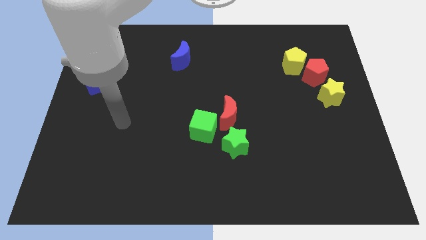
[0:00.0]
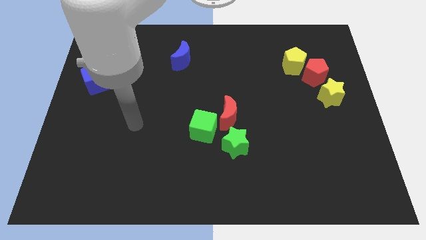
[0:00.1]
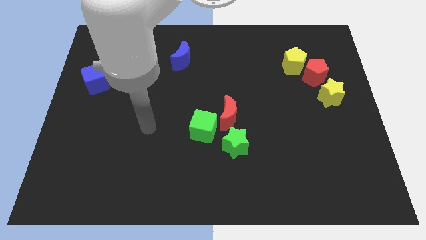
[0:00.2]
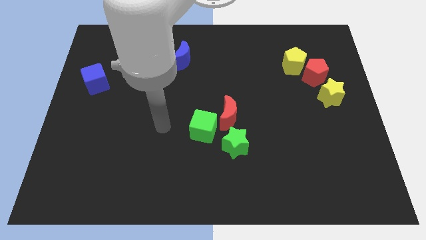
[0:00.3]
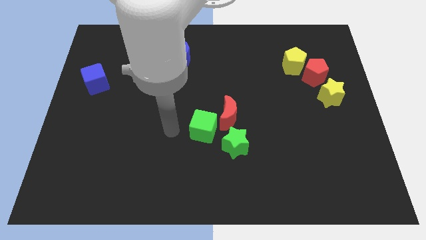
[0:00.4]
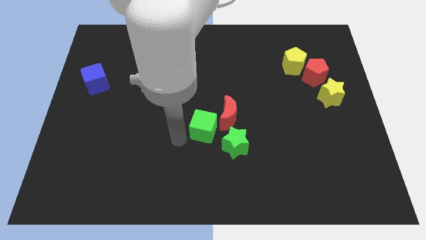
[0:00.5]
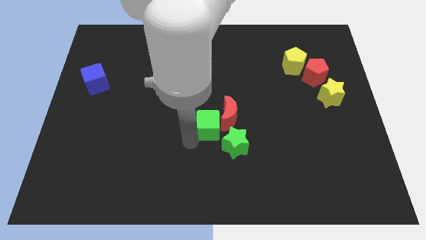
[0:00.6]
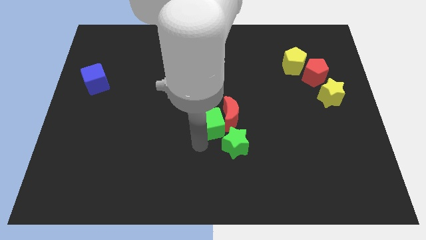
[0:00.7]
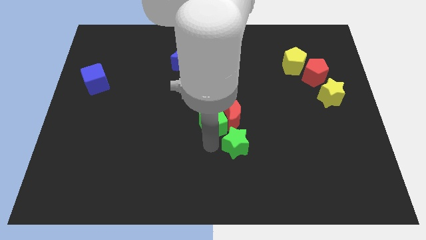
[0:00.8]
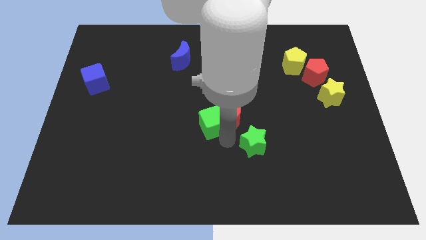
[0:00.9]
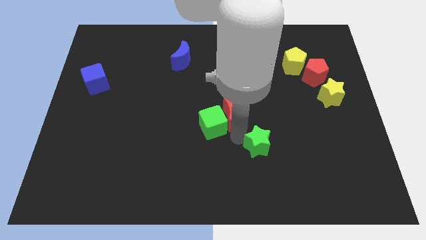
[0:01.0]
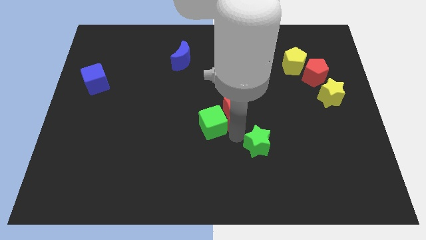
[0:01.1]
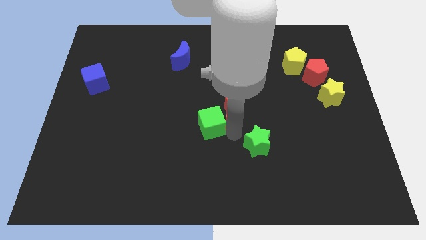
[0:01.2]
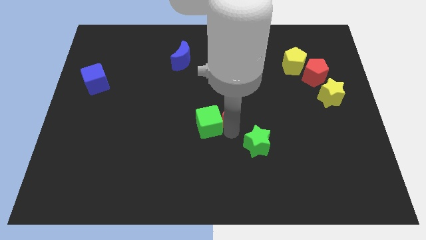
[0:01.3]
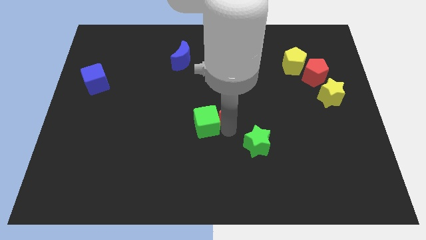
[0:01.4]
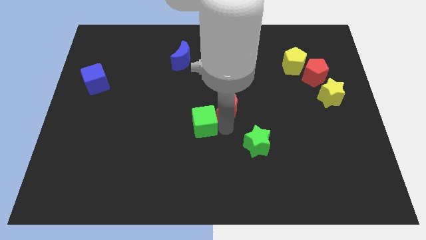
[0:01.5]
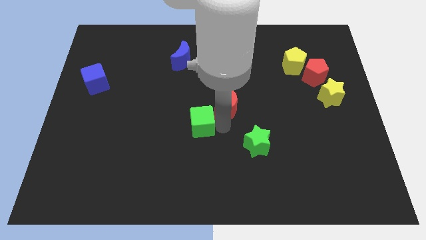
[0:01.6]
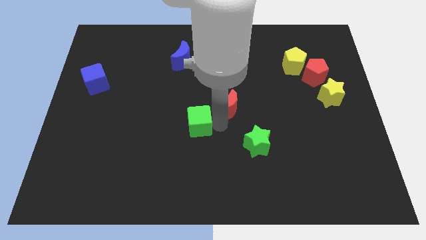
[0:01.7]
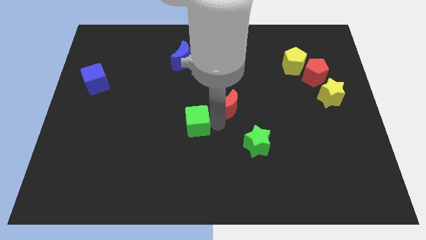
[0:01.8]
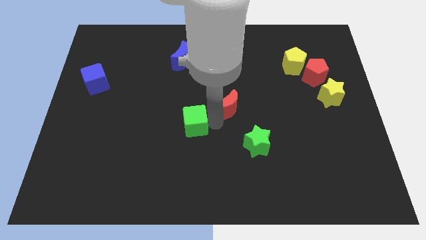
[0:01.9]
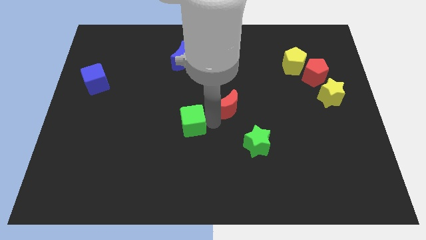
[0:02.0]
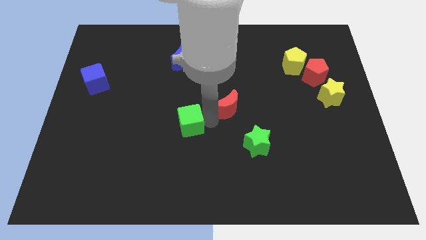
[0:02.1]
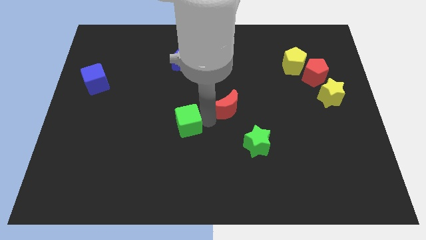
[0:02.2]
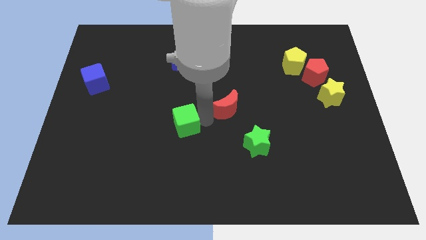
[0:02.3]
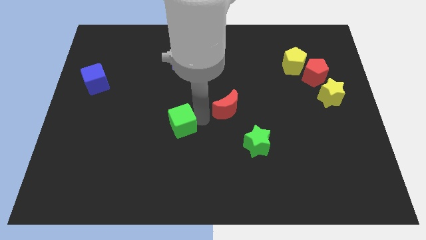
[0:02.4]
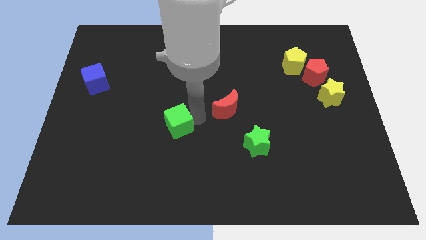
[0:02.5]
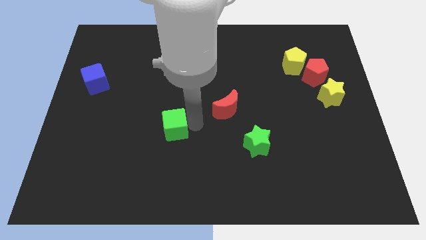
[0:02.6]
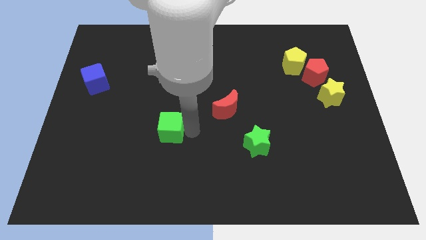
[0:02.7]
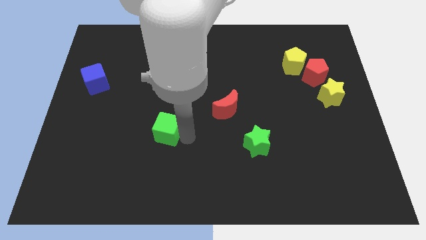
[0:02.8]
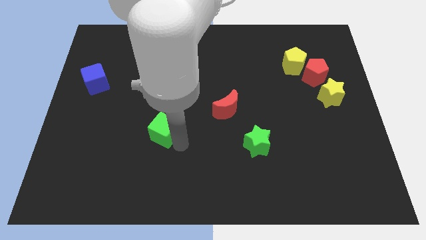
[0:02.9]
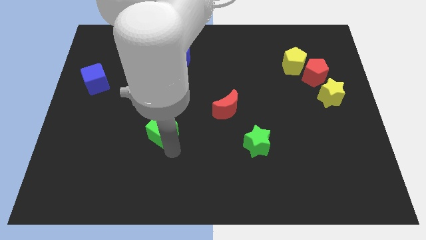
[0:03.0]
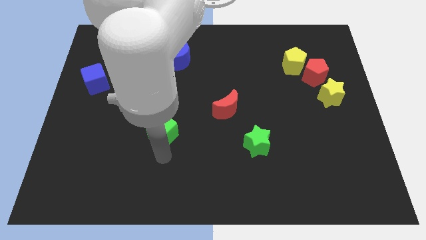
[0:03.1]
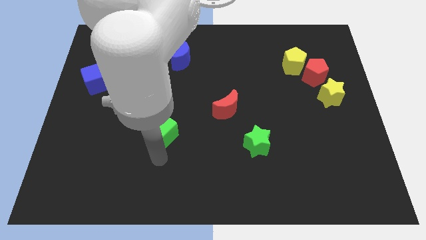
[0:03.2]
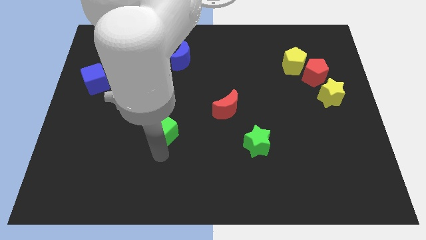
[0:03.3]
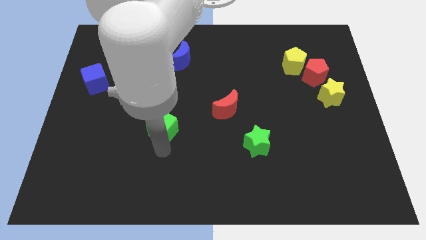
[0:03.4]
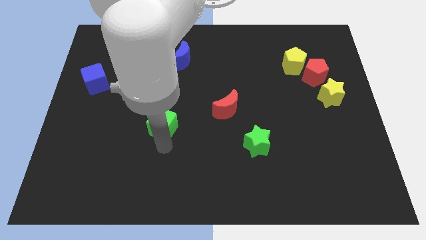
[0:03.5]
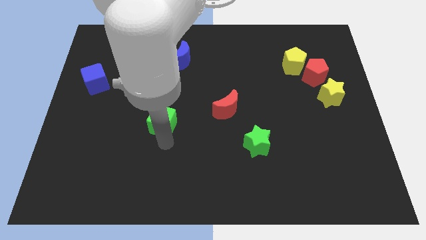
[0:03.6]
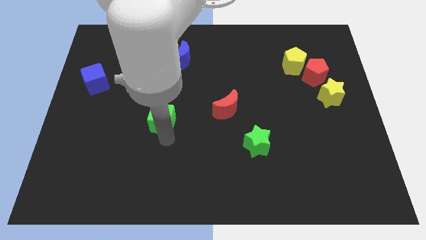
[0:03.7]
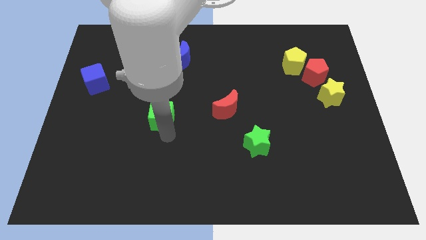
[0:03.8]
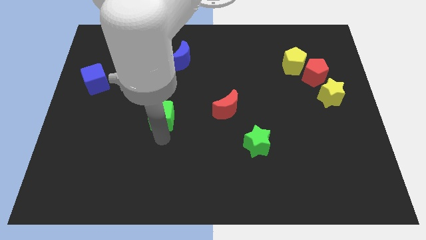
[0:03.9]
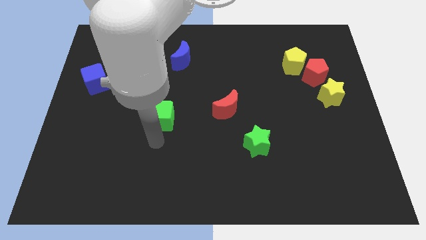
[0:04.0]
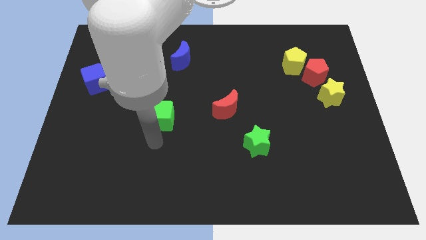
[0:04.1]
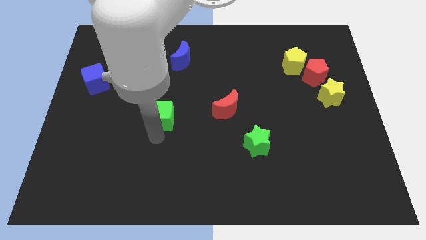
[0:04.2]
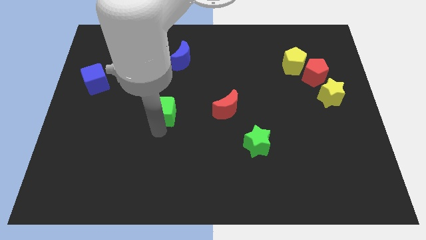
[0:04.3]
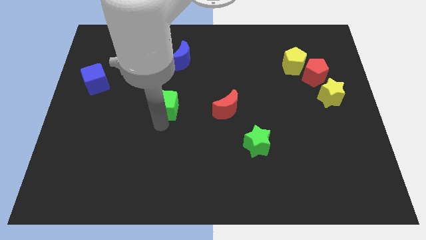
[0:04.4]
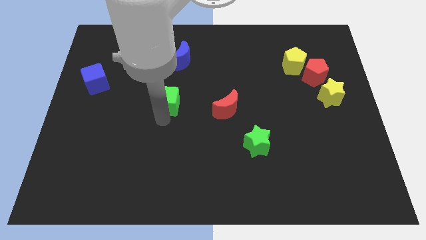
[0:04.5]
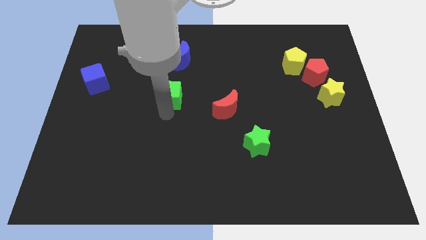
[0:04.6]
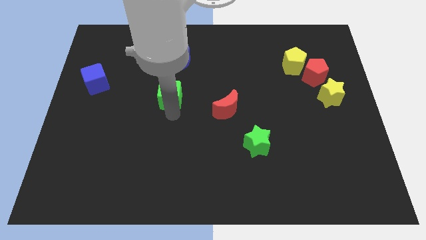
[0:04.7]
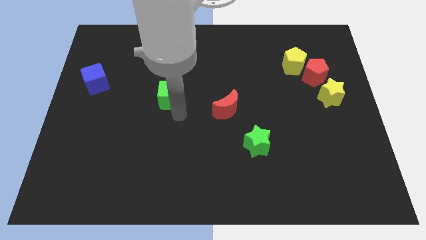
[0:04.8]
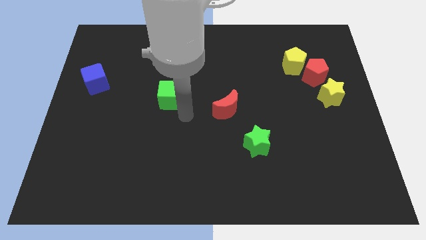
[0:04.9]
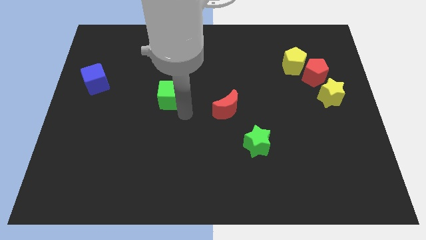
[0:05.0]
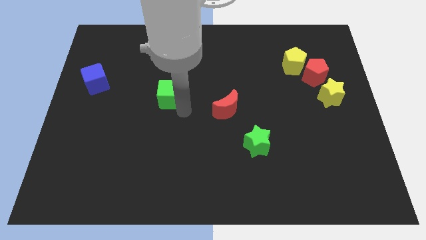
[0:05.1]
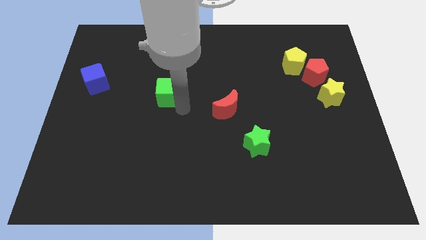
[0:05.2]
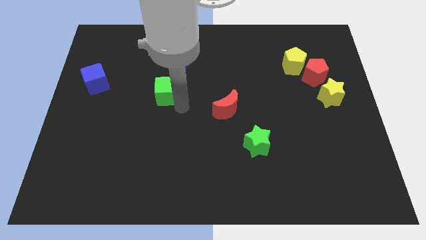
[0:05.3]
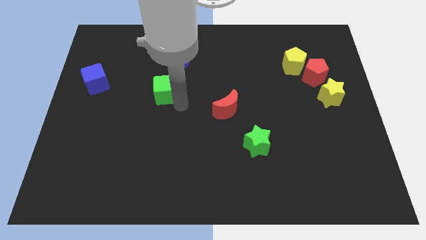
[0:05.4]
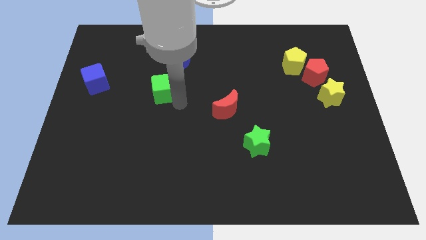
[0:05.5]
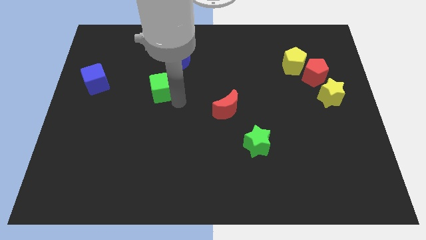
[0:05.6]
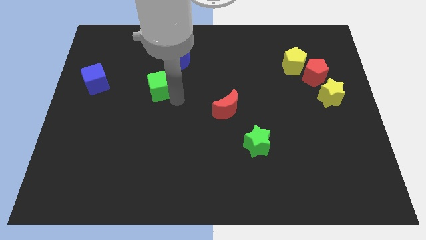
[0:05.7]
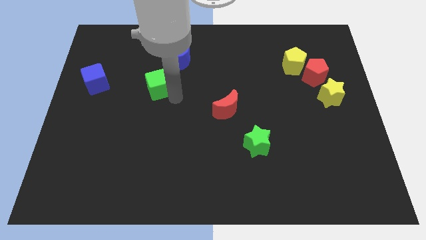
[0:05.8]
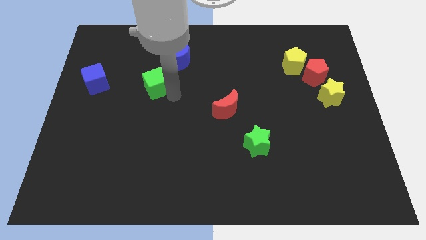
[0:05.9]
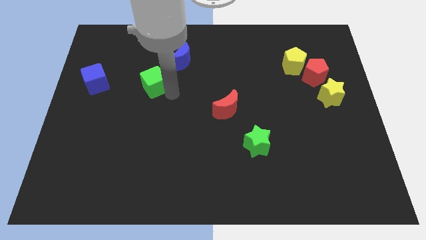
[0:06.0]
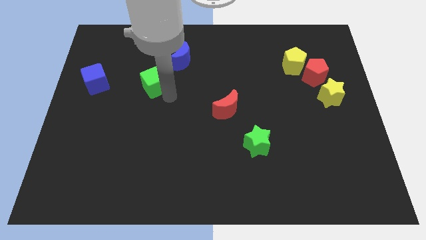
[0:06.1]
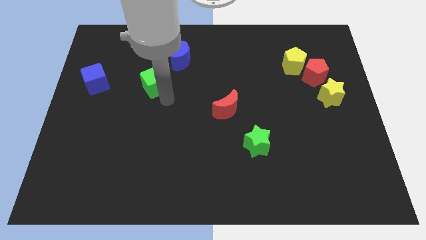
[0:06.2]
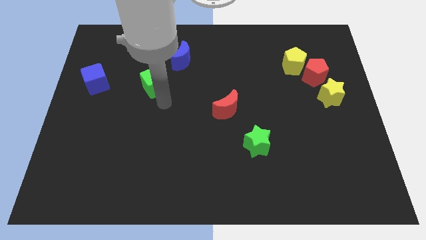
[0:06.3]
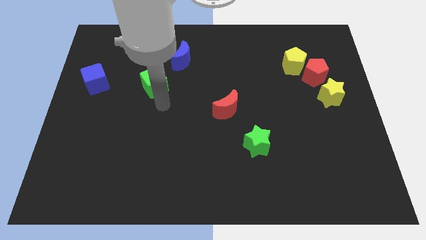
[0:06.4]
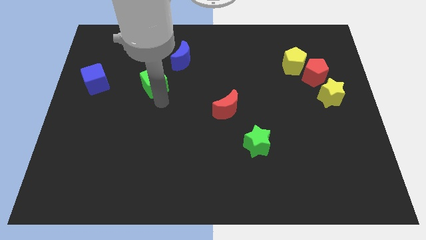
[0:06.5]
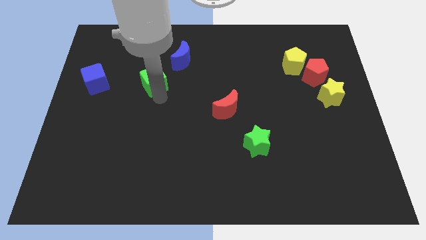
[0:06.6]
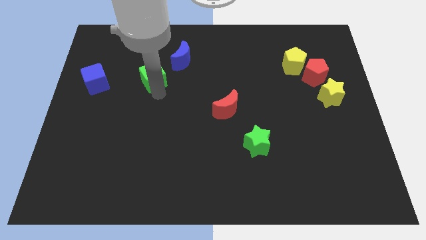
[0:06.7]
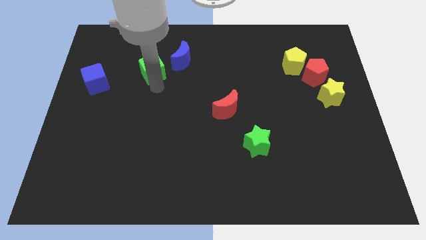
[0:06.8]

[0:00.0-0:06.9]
push the green cube to the left of the blue moon

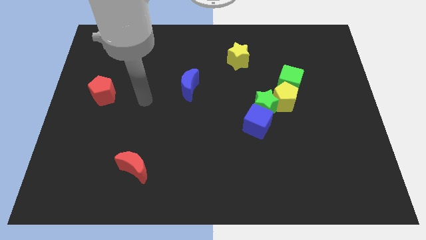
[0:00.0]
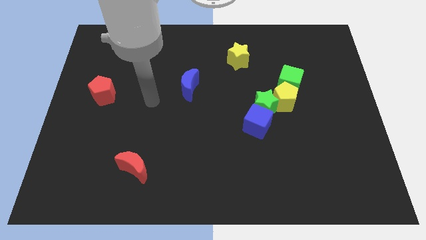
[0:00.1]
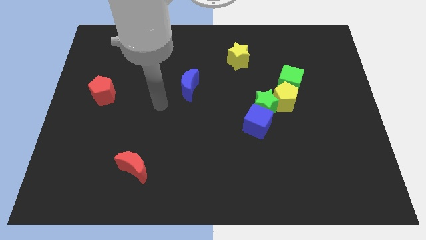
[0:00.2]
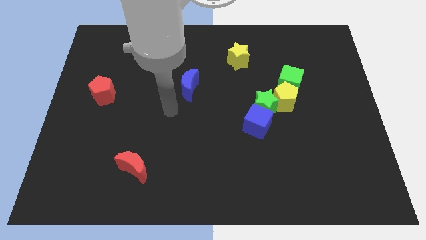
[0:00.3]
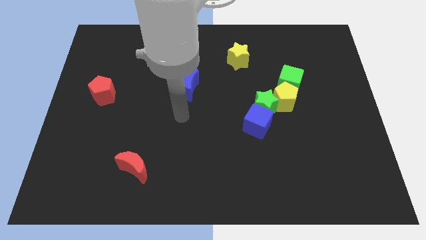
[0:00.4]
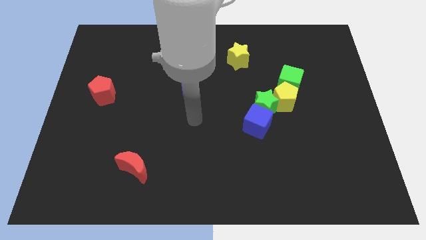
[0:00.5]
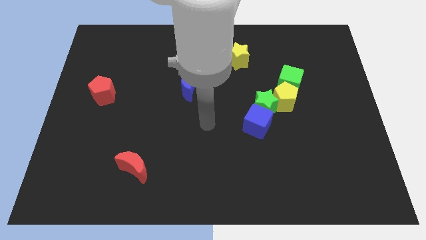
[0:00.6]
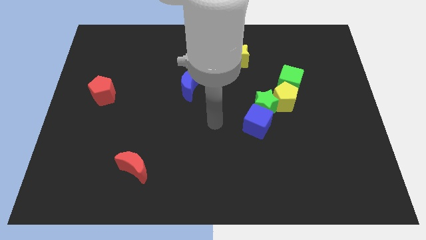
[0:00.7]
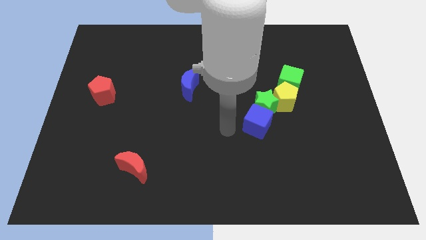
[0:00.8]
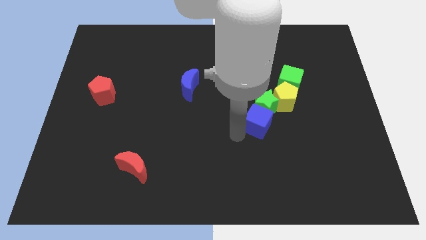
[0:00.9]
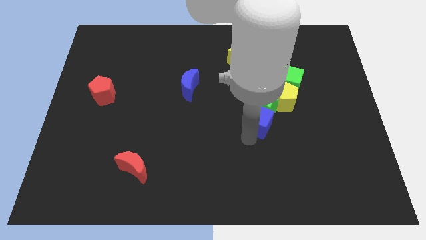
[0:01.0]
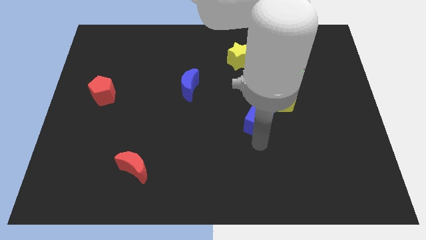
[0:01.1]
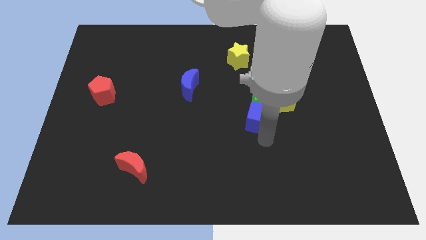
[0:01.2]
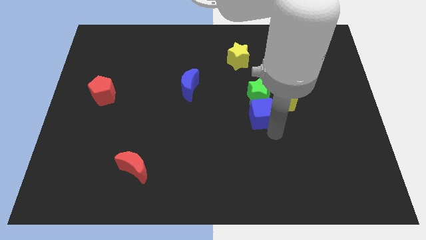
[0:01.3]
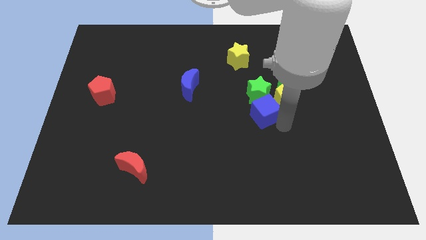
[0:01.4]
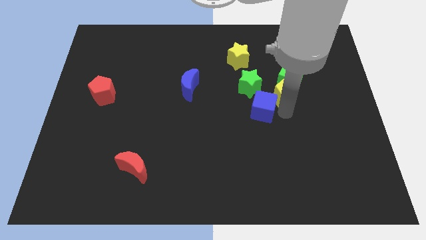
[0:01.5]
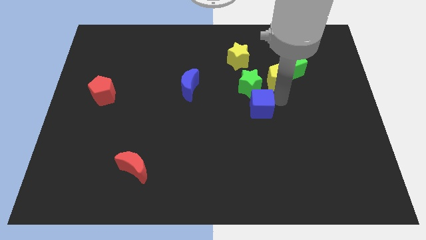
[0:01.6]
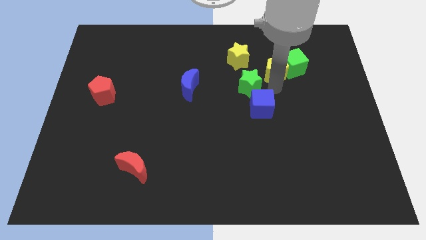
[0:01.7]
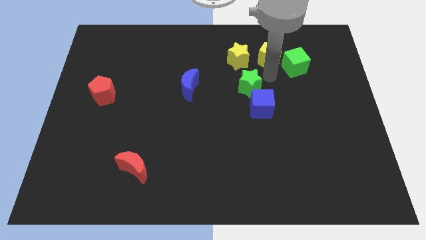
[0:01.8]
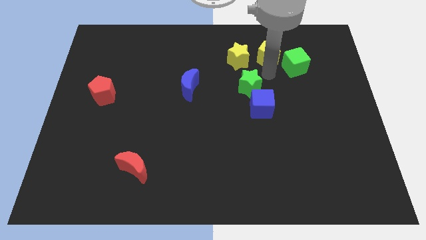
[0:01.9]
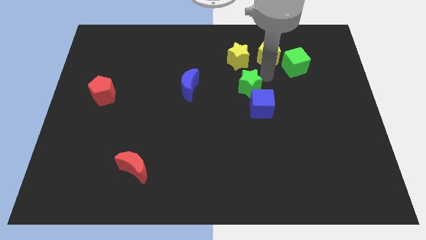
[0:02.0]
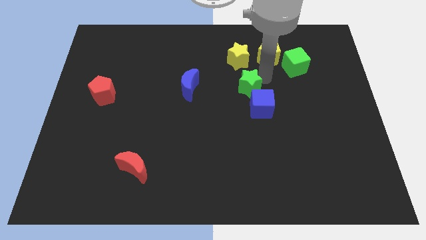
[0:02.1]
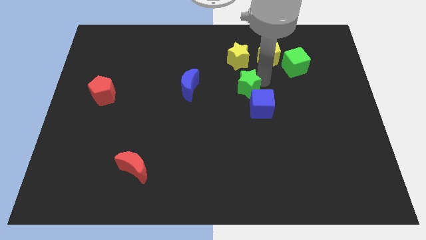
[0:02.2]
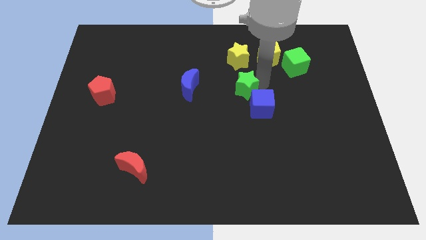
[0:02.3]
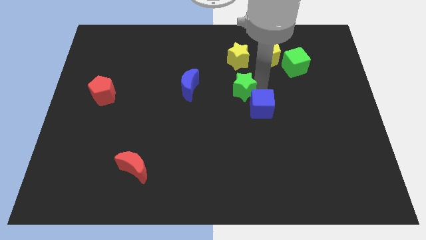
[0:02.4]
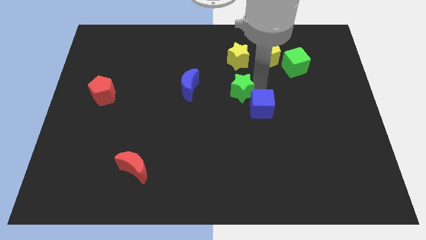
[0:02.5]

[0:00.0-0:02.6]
move the green star left of the blue cube
